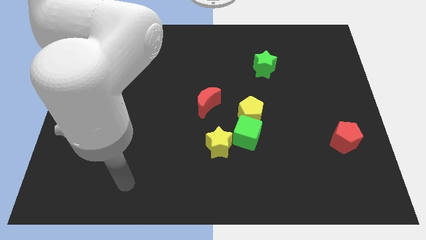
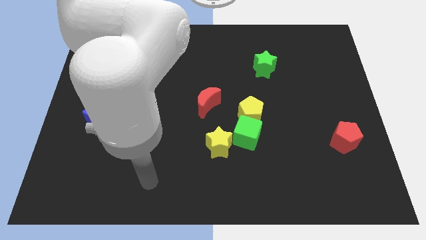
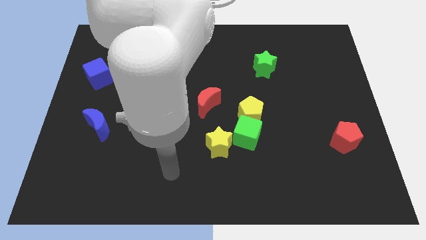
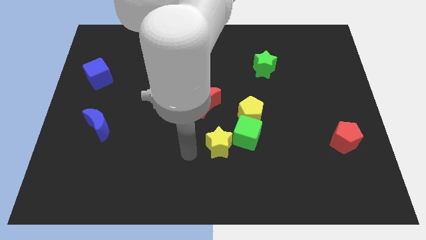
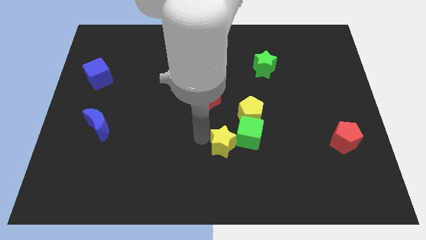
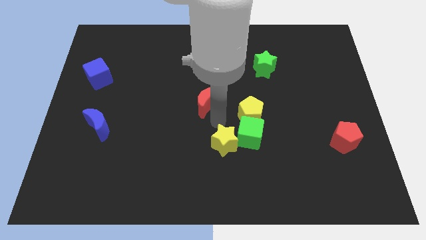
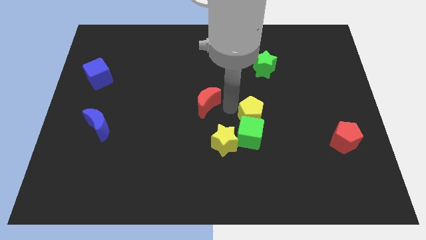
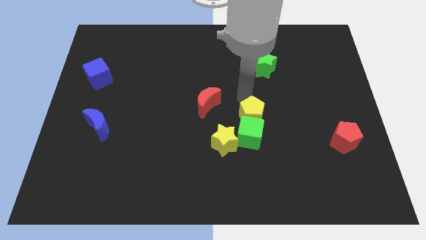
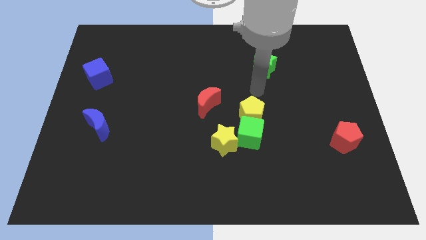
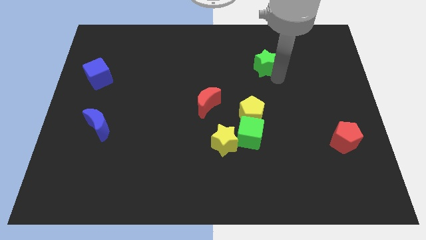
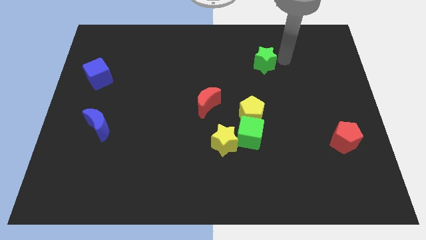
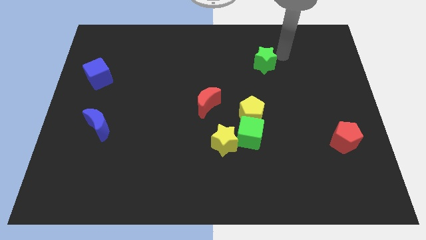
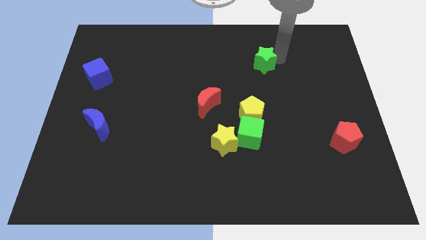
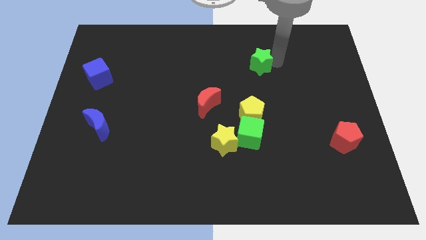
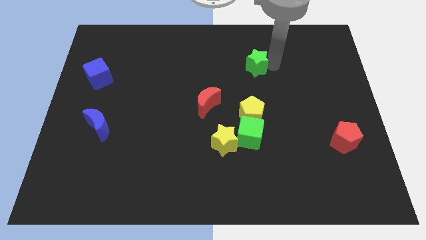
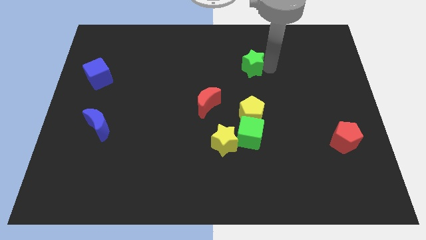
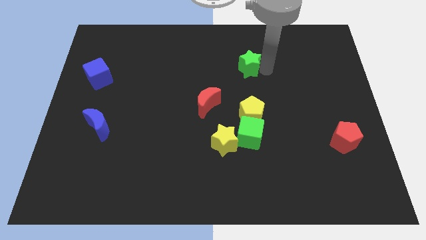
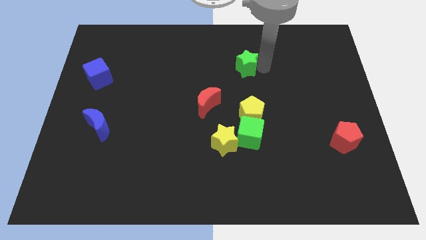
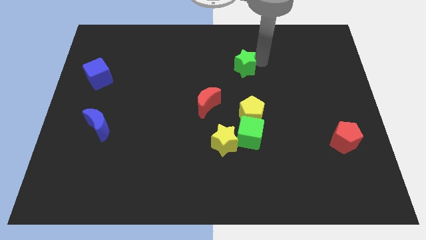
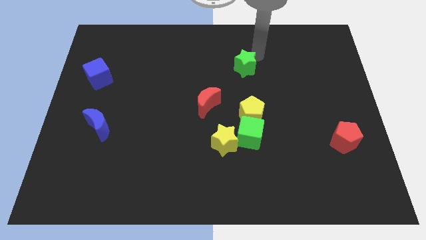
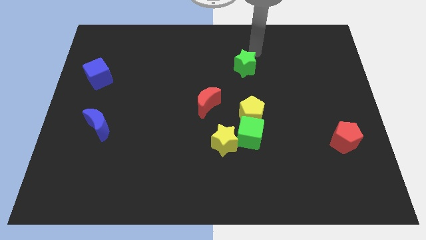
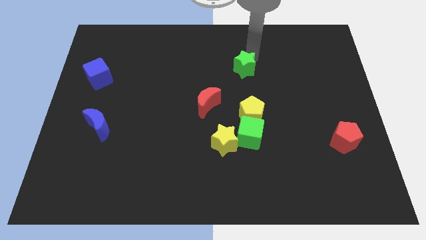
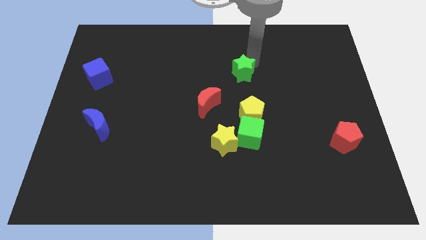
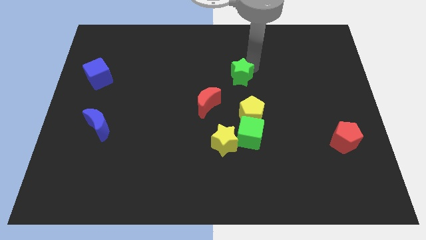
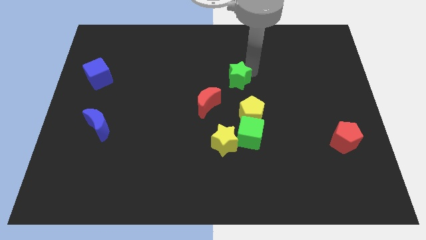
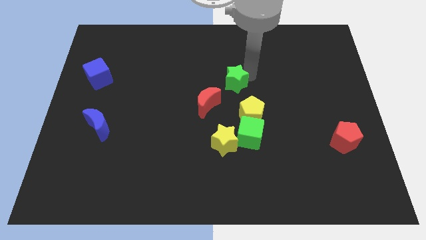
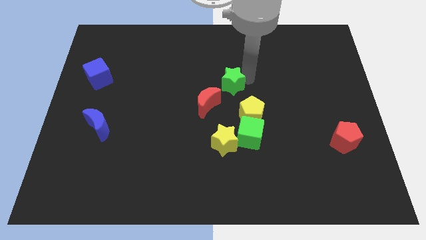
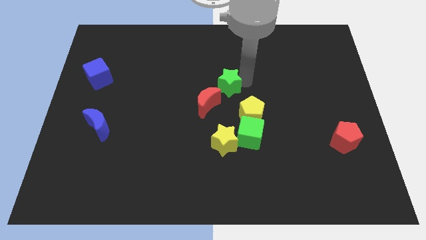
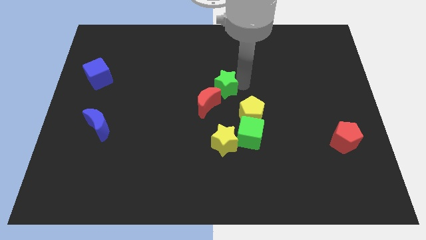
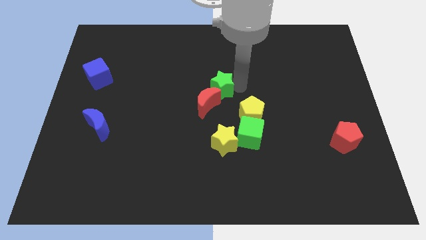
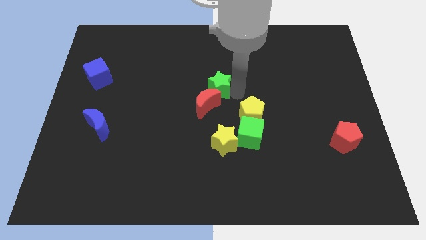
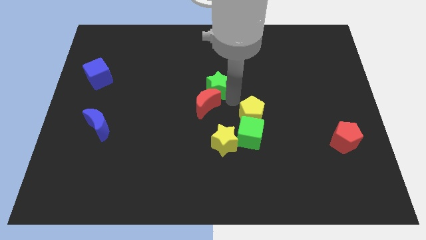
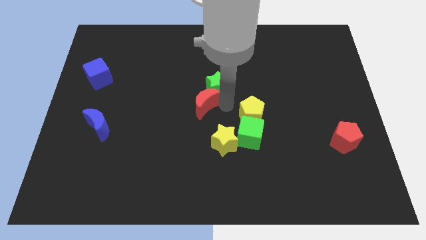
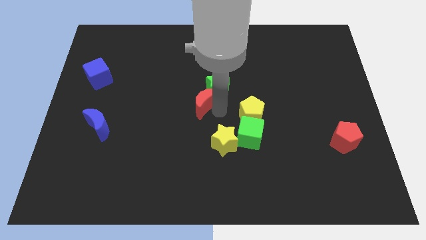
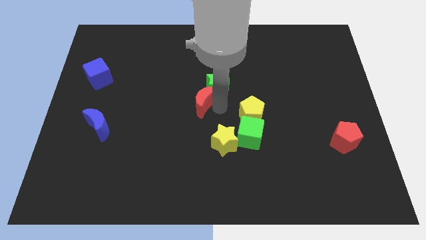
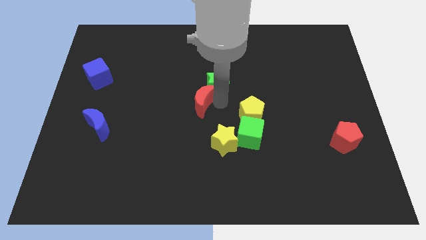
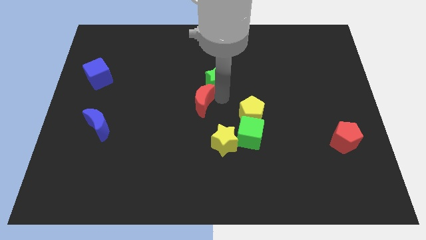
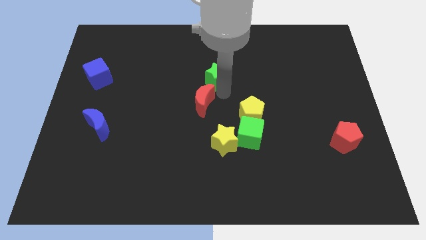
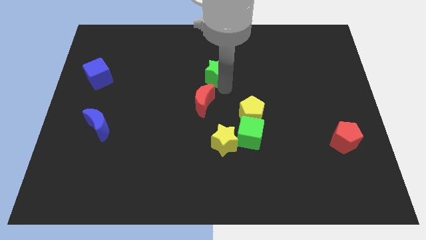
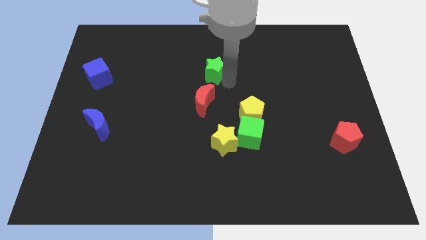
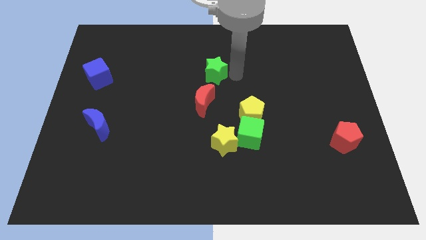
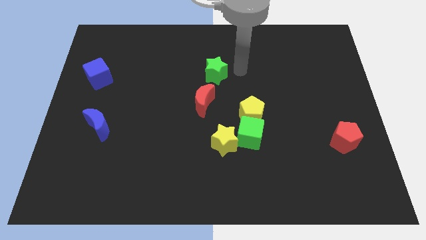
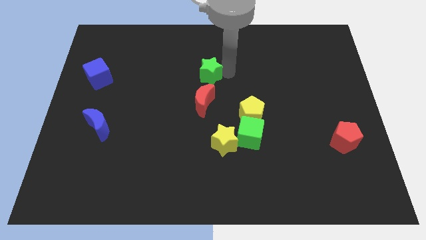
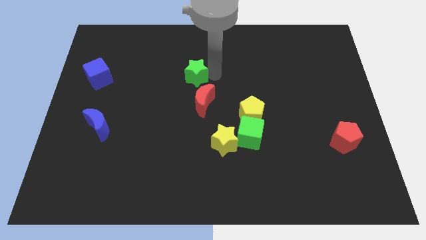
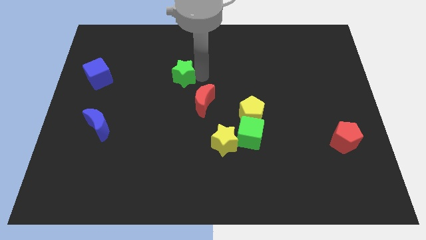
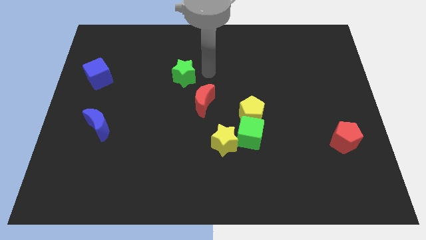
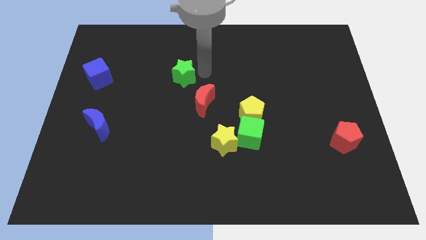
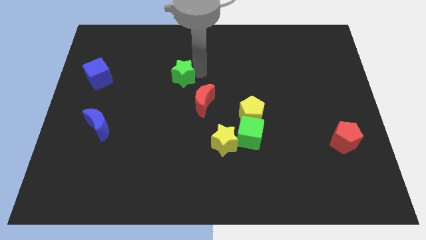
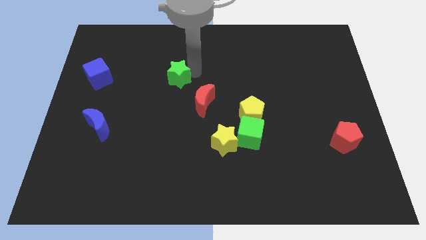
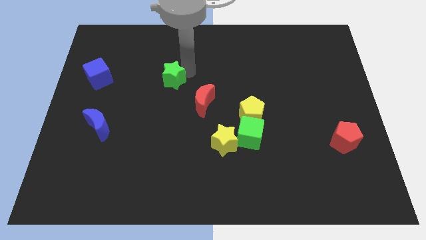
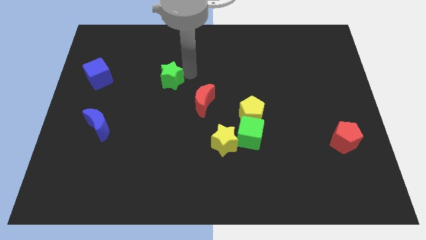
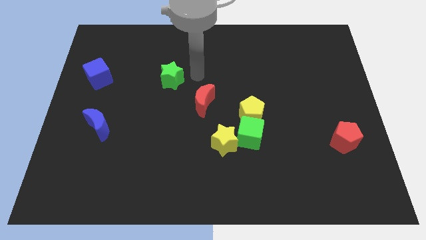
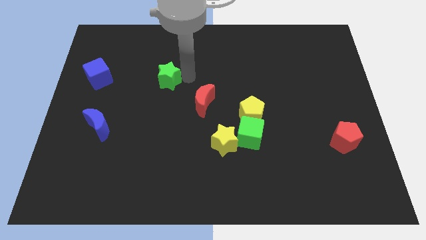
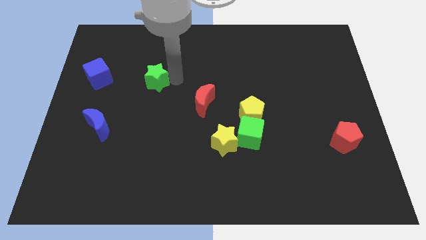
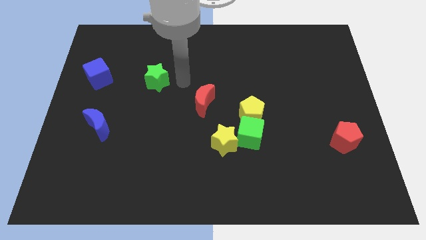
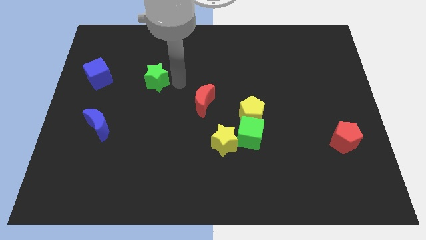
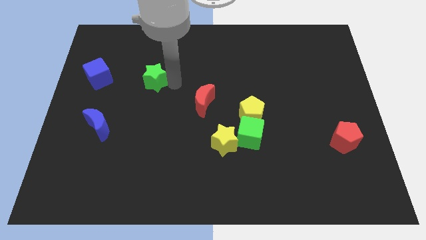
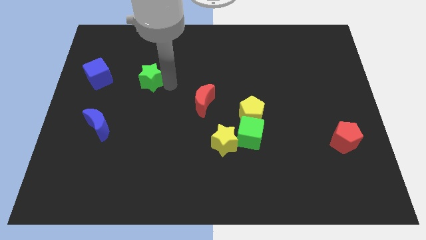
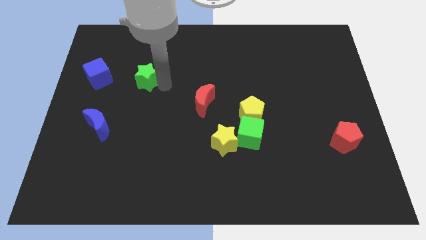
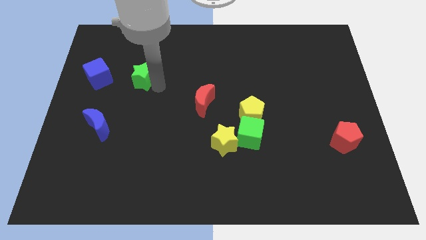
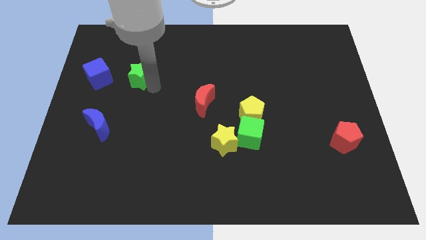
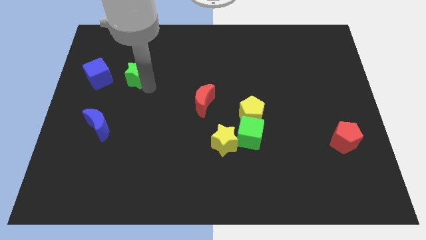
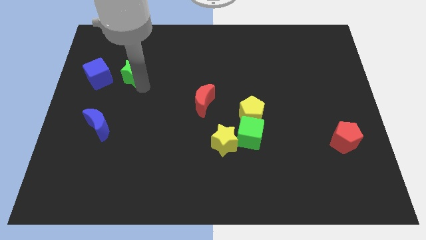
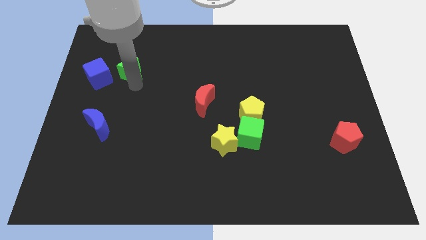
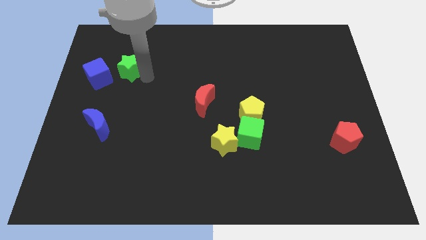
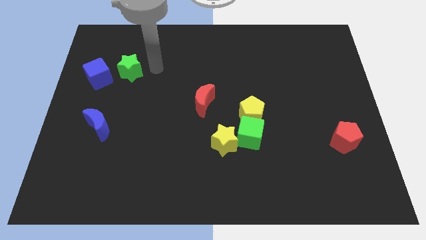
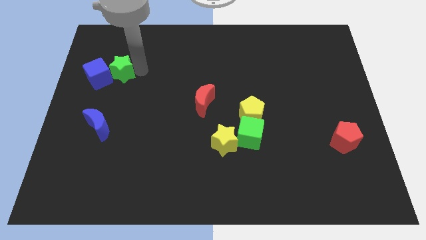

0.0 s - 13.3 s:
push the green star towards the blue cube
